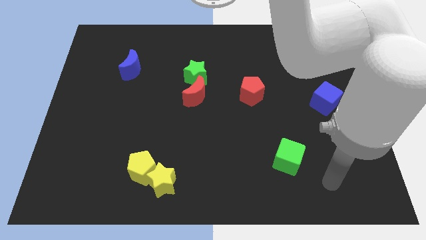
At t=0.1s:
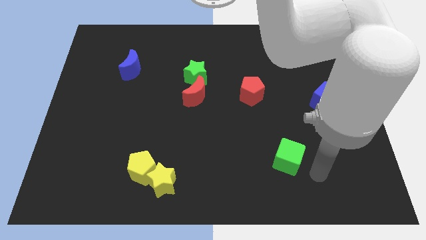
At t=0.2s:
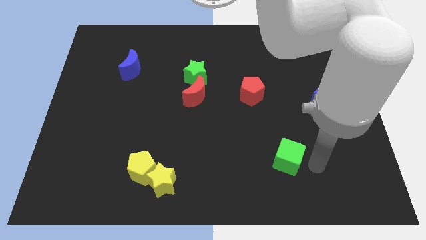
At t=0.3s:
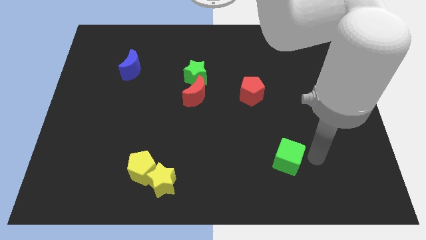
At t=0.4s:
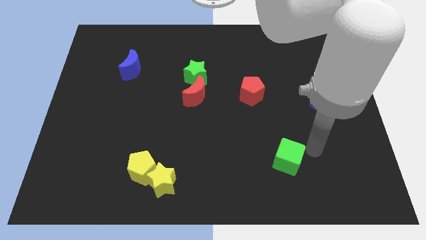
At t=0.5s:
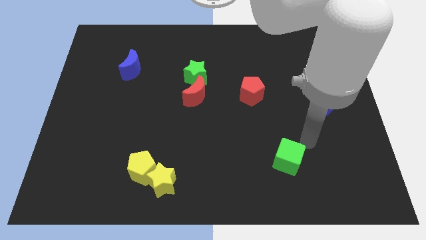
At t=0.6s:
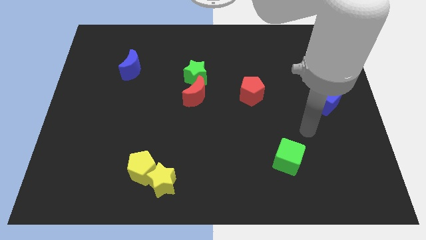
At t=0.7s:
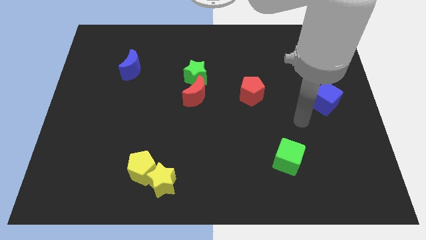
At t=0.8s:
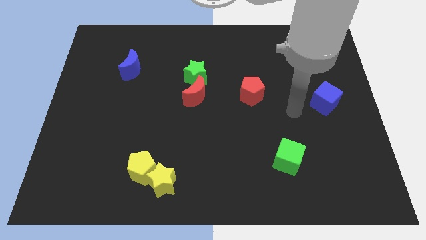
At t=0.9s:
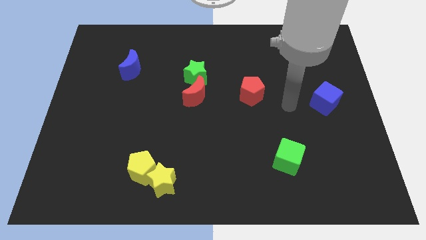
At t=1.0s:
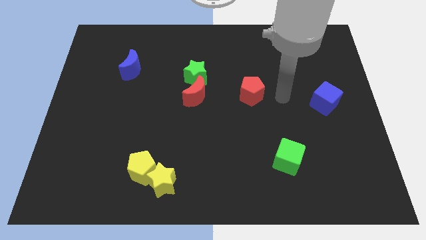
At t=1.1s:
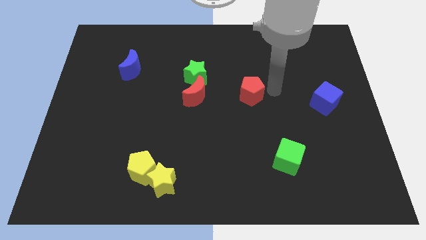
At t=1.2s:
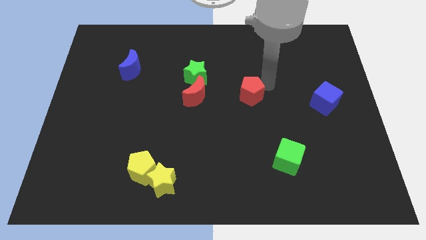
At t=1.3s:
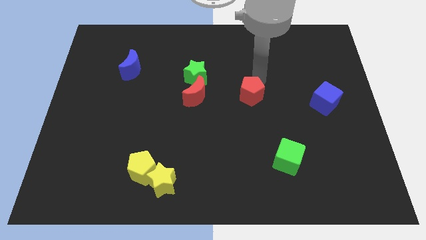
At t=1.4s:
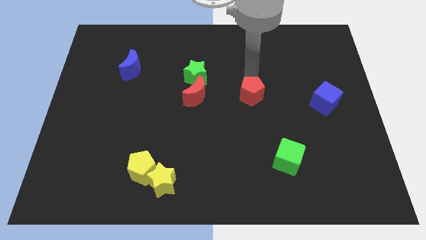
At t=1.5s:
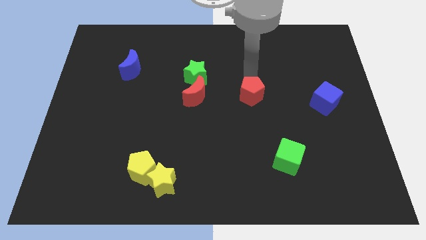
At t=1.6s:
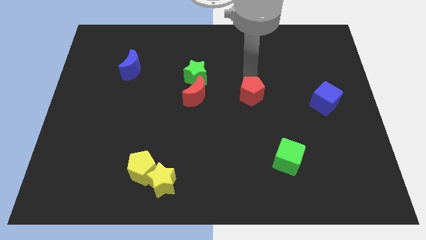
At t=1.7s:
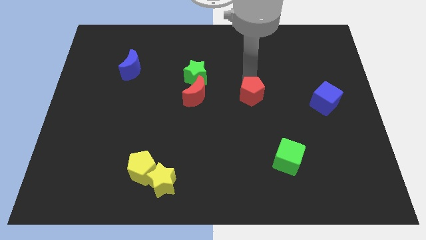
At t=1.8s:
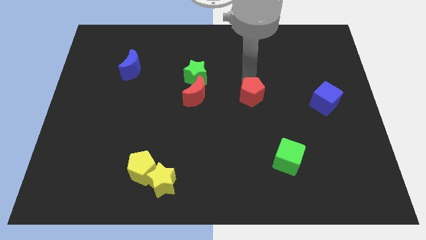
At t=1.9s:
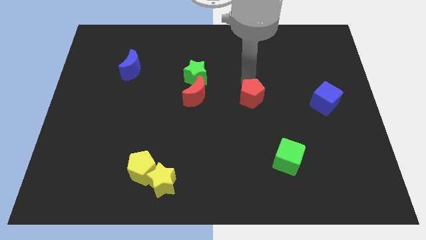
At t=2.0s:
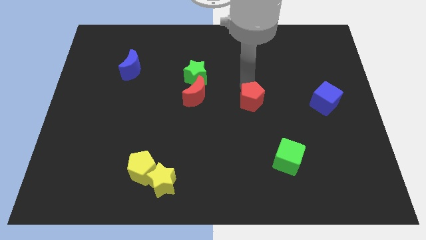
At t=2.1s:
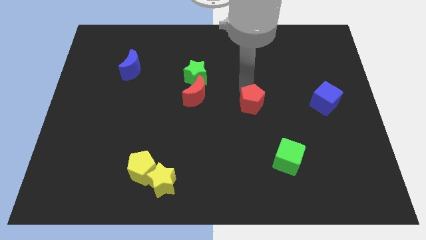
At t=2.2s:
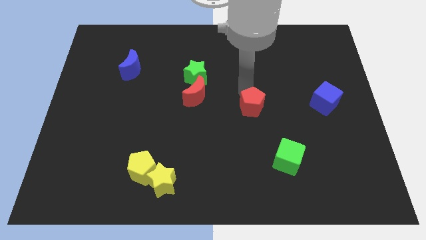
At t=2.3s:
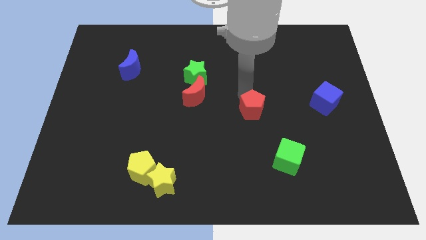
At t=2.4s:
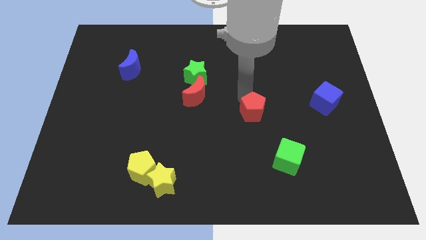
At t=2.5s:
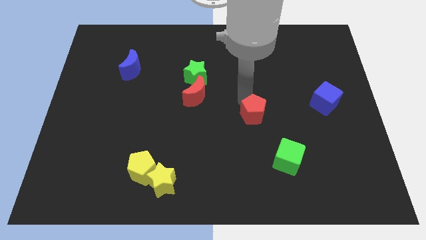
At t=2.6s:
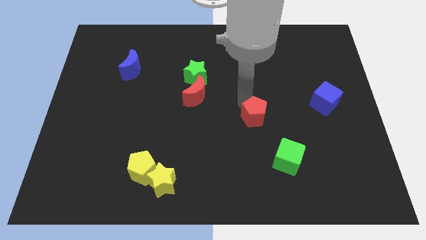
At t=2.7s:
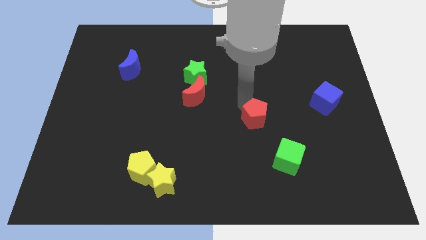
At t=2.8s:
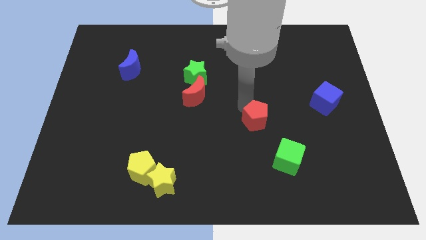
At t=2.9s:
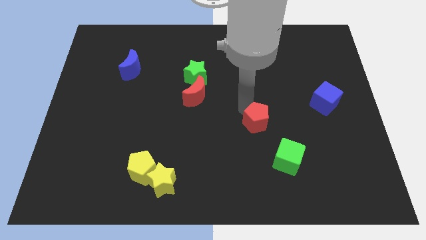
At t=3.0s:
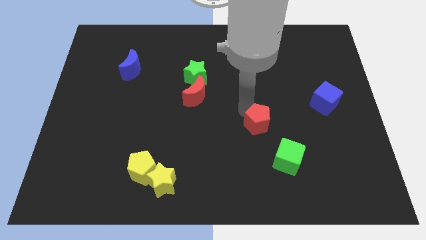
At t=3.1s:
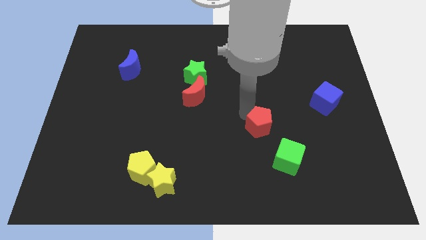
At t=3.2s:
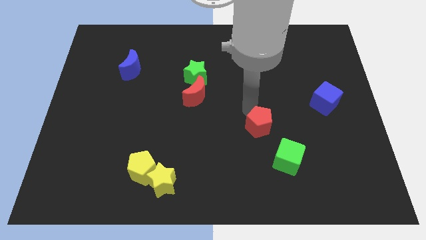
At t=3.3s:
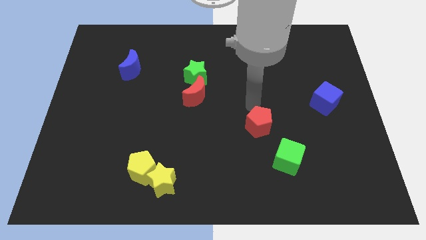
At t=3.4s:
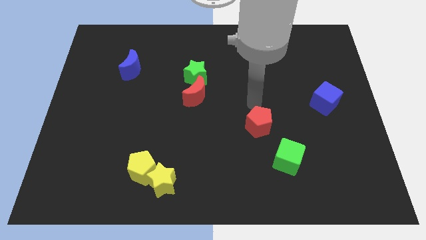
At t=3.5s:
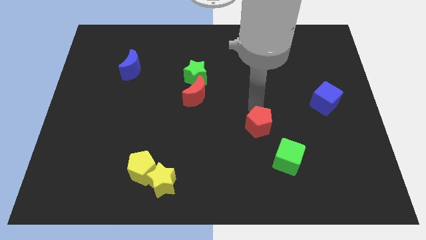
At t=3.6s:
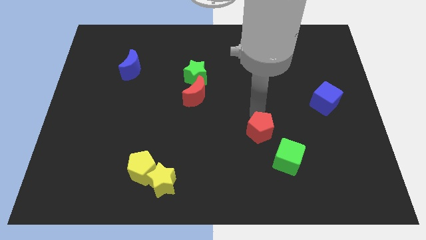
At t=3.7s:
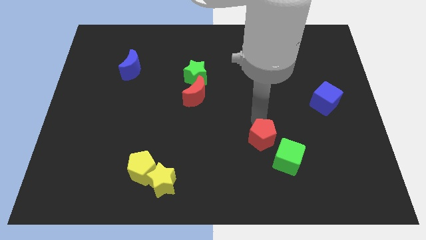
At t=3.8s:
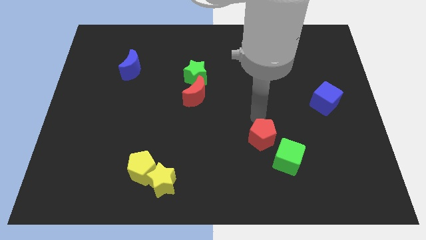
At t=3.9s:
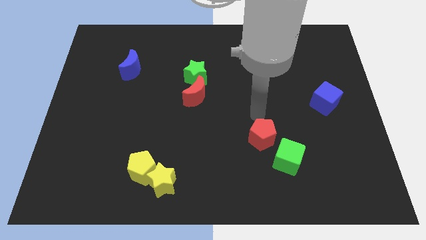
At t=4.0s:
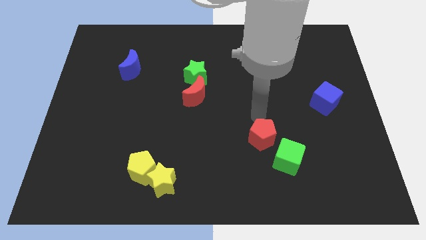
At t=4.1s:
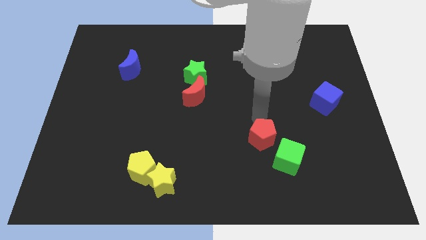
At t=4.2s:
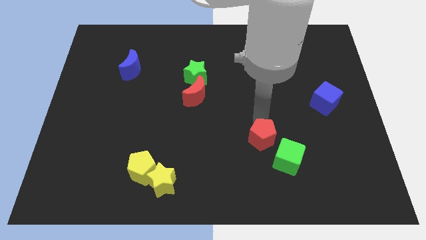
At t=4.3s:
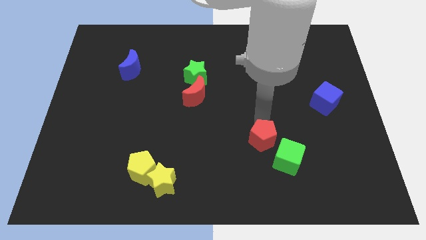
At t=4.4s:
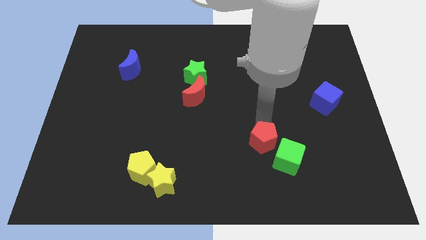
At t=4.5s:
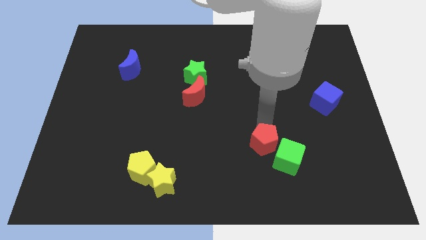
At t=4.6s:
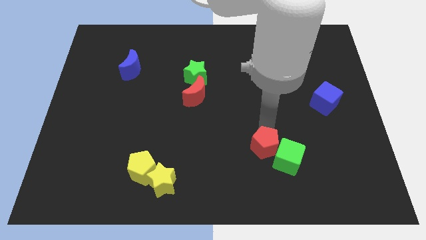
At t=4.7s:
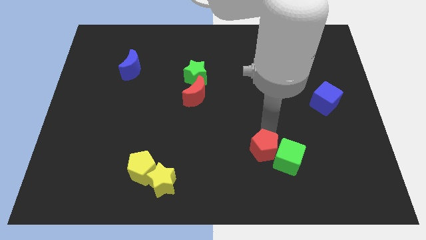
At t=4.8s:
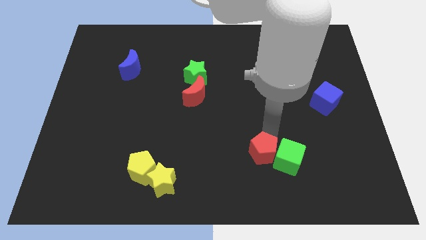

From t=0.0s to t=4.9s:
push the red pentagon to the bottom left side of the green cube

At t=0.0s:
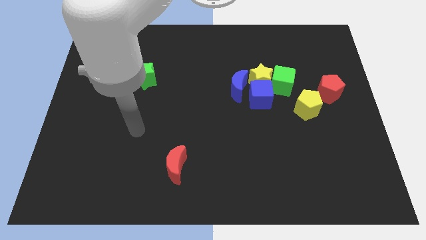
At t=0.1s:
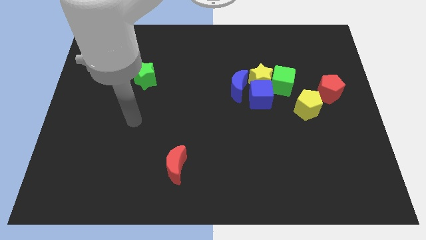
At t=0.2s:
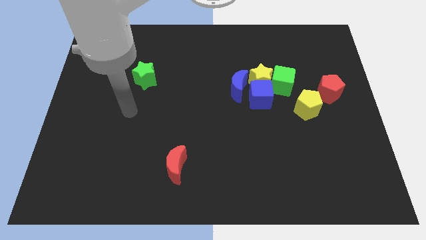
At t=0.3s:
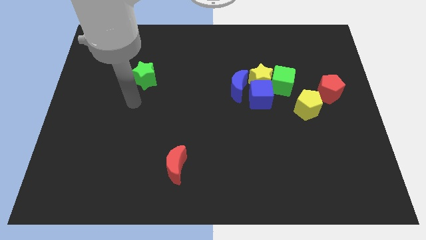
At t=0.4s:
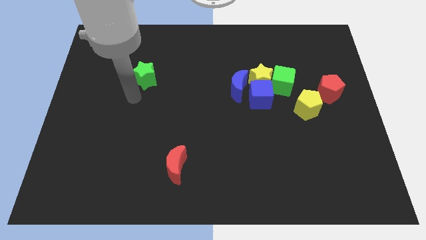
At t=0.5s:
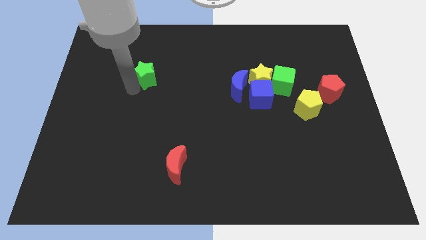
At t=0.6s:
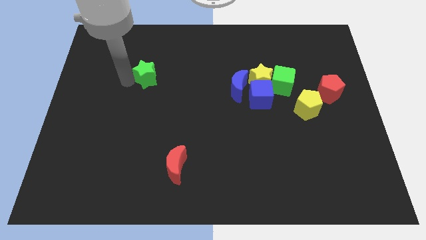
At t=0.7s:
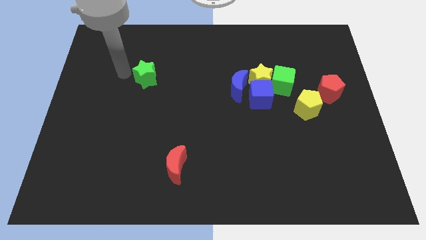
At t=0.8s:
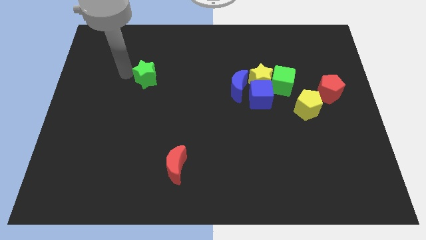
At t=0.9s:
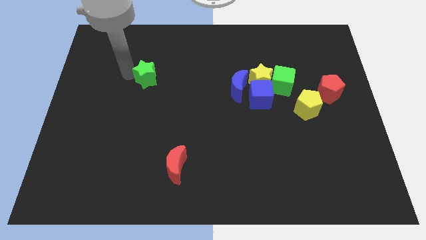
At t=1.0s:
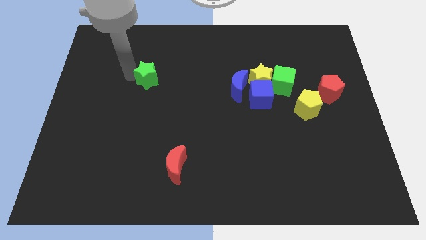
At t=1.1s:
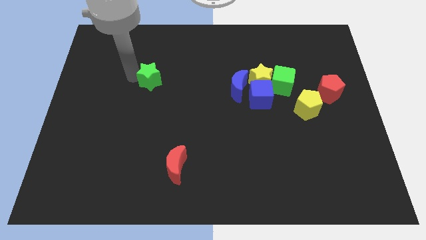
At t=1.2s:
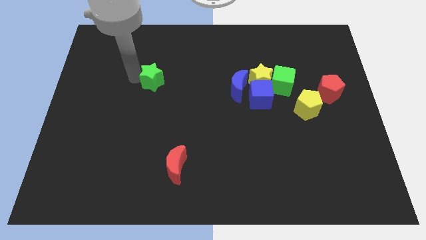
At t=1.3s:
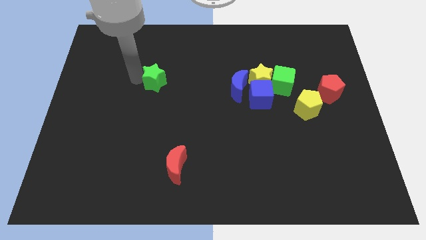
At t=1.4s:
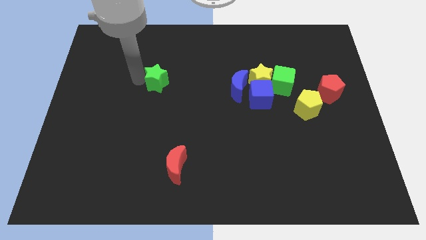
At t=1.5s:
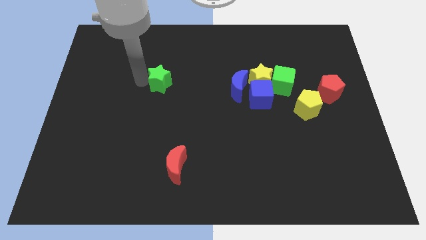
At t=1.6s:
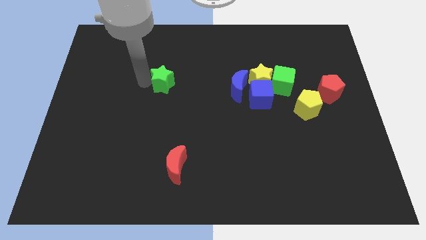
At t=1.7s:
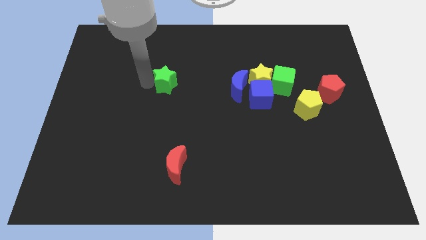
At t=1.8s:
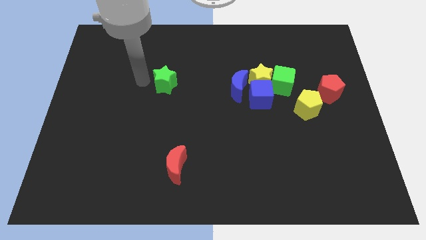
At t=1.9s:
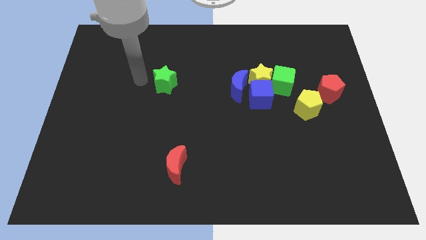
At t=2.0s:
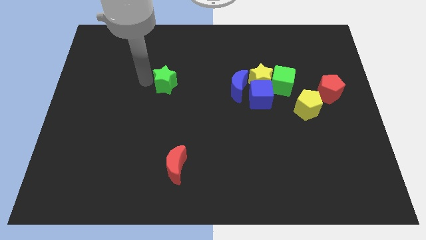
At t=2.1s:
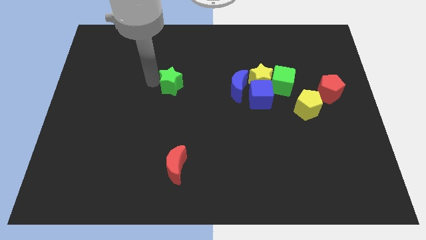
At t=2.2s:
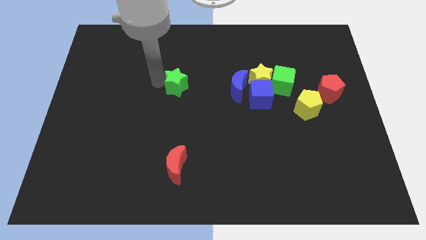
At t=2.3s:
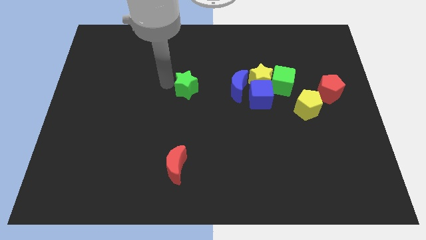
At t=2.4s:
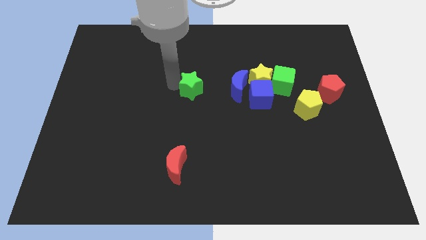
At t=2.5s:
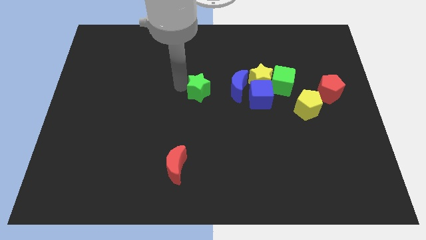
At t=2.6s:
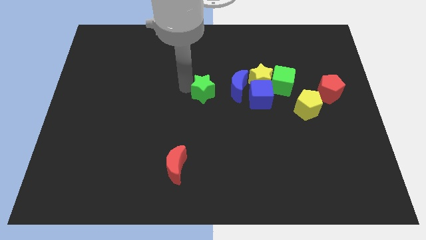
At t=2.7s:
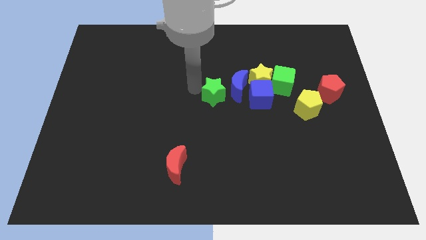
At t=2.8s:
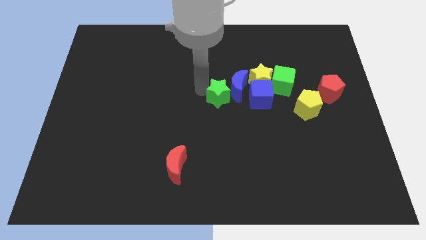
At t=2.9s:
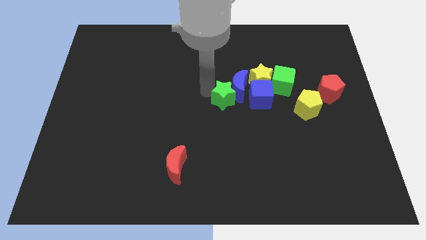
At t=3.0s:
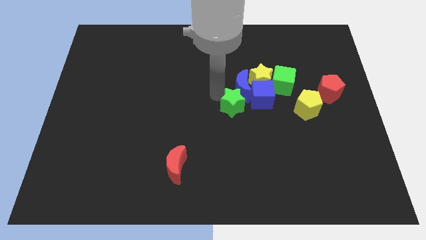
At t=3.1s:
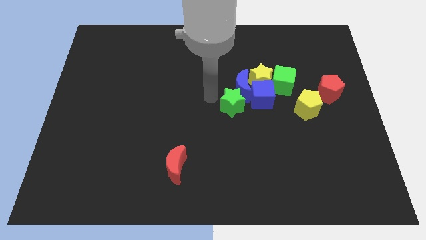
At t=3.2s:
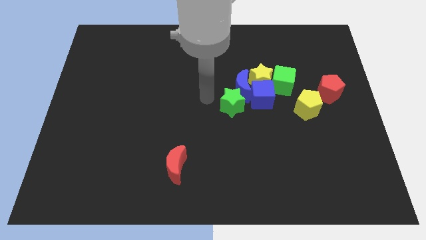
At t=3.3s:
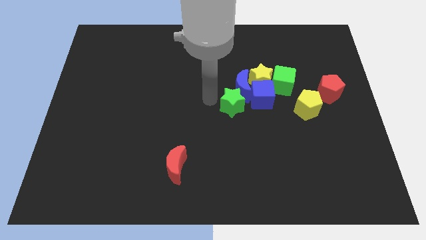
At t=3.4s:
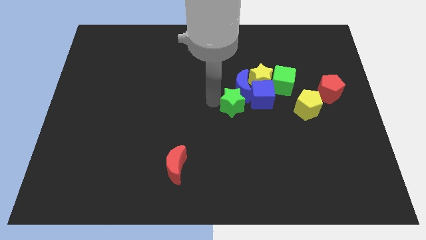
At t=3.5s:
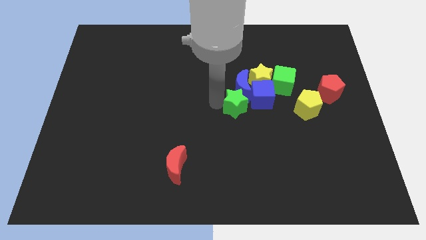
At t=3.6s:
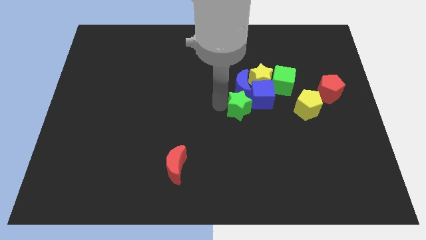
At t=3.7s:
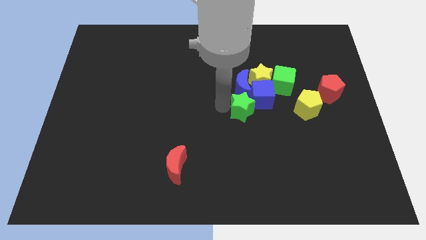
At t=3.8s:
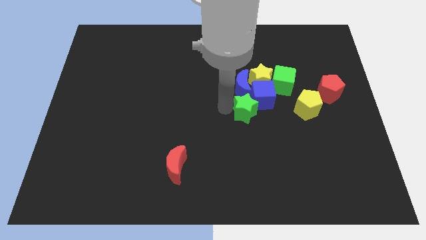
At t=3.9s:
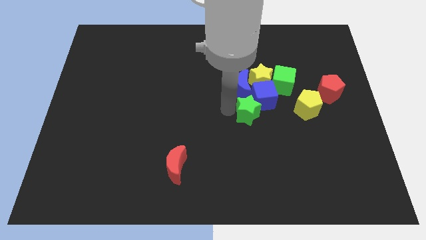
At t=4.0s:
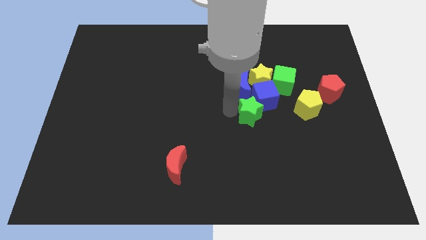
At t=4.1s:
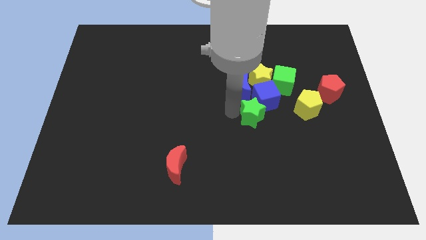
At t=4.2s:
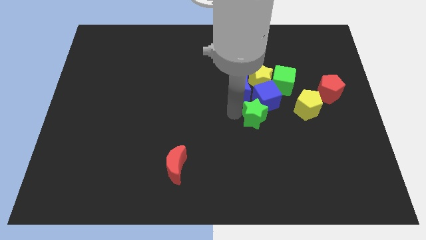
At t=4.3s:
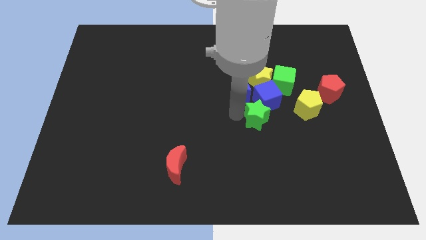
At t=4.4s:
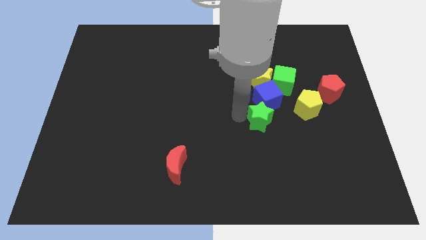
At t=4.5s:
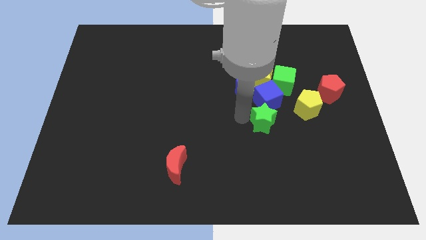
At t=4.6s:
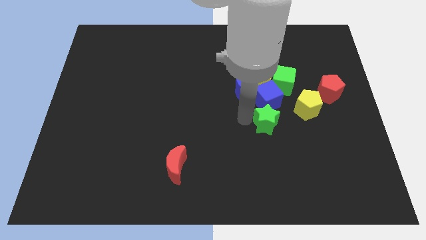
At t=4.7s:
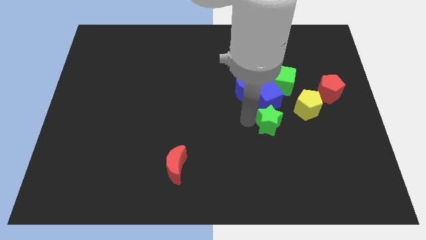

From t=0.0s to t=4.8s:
move the green star below the green cube
